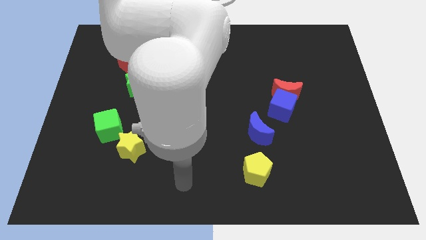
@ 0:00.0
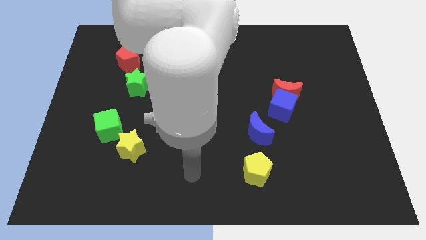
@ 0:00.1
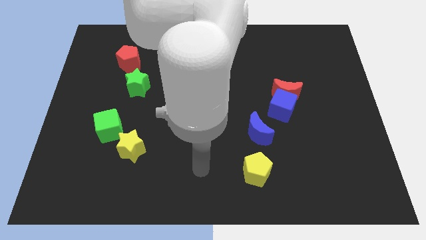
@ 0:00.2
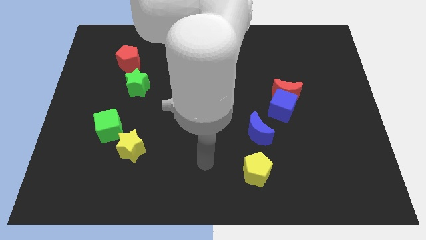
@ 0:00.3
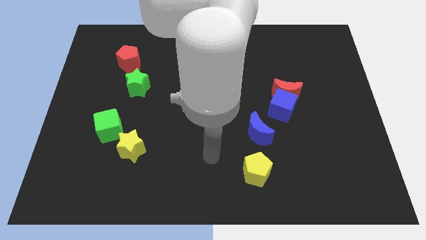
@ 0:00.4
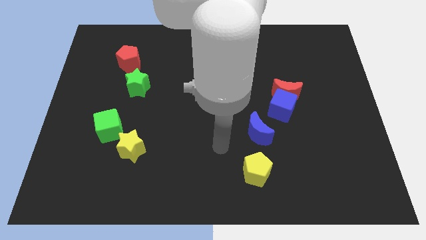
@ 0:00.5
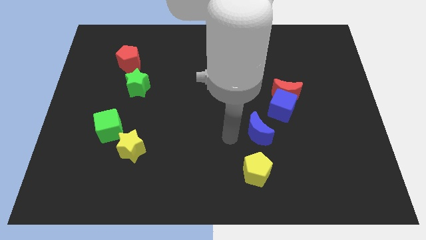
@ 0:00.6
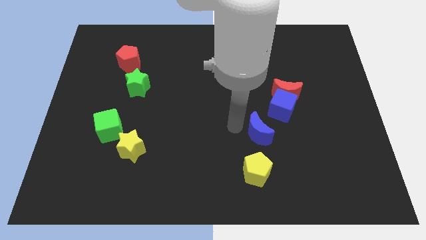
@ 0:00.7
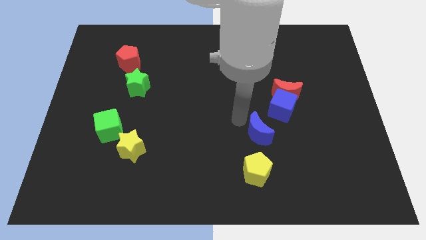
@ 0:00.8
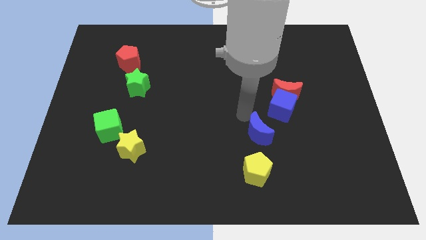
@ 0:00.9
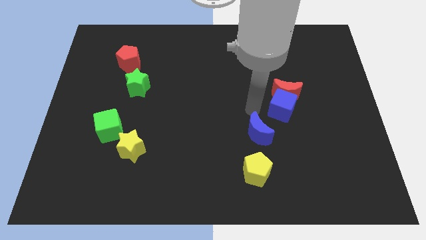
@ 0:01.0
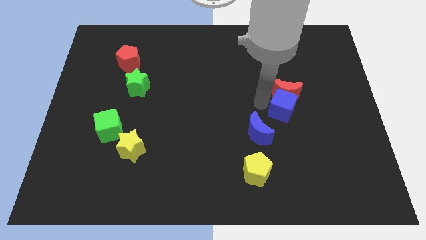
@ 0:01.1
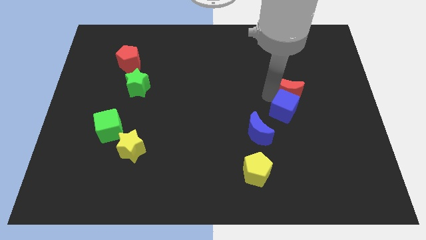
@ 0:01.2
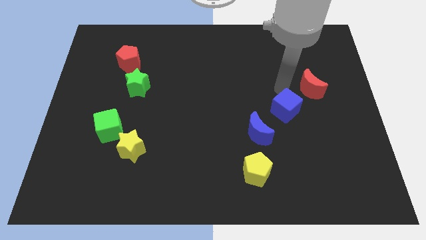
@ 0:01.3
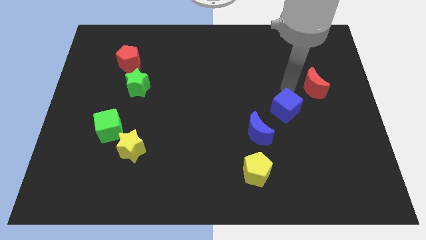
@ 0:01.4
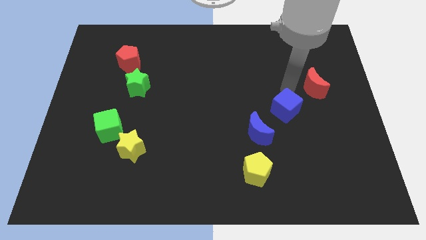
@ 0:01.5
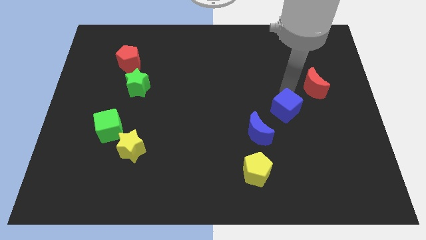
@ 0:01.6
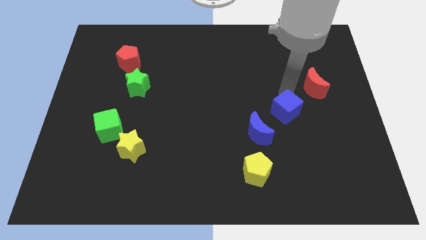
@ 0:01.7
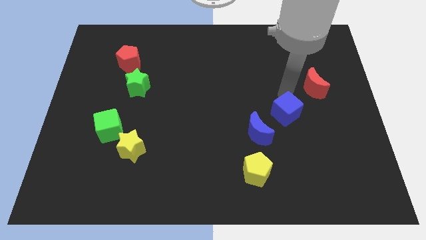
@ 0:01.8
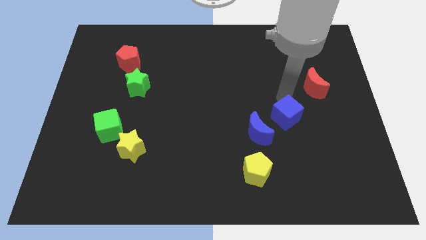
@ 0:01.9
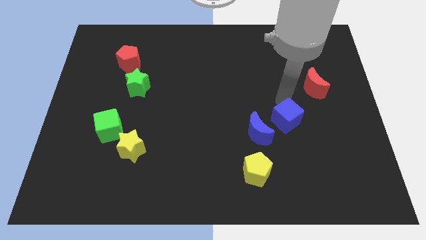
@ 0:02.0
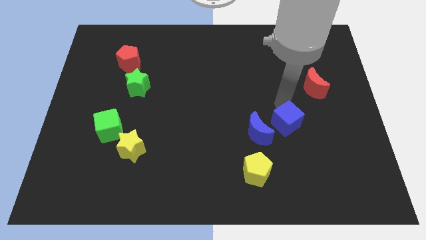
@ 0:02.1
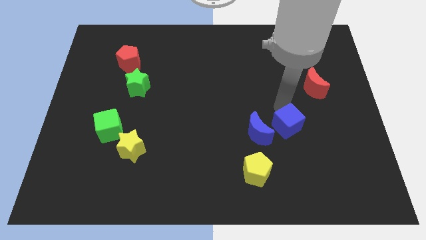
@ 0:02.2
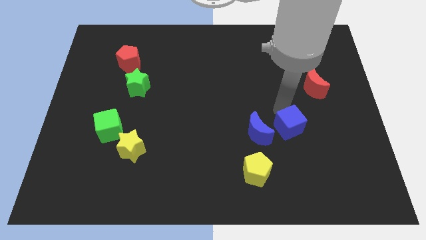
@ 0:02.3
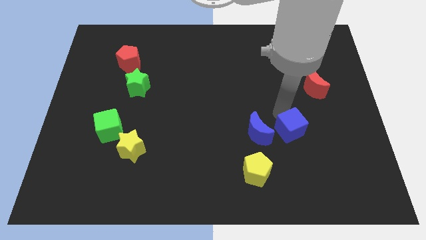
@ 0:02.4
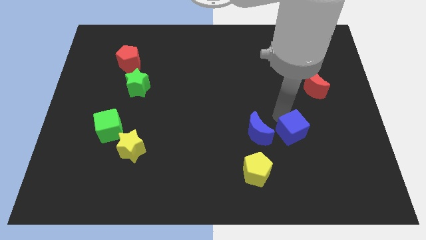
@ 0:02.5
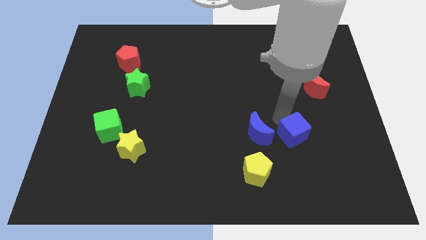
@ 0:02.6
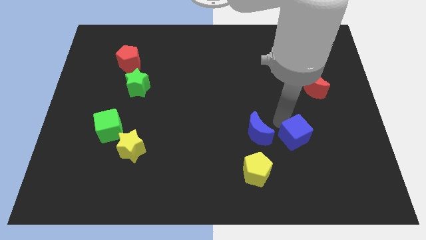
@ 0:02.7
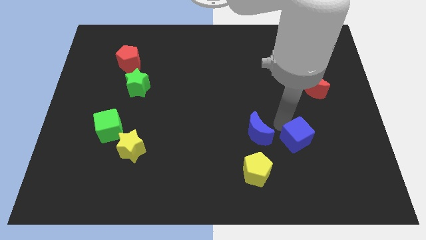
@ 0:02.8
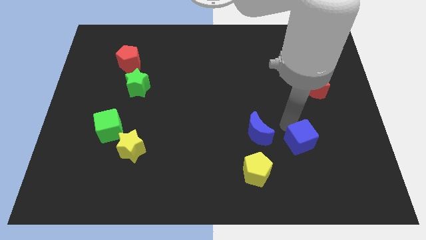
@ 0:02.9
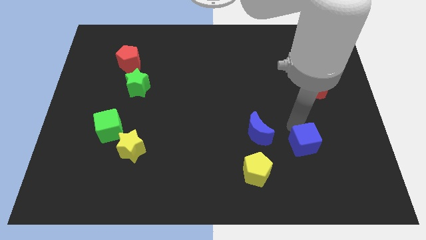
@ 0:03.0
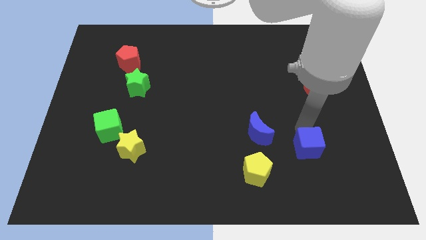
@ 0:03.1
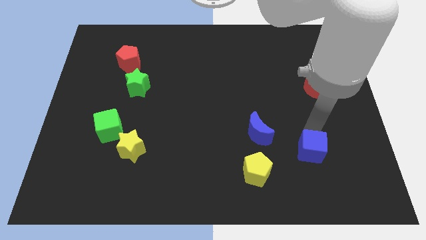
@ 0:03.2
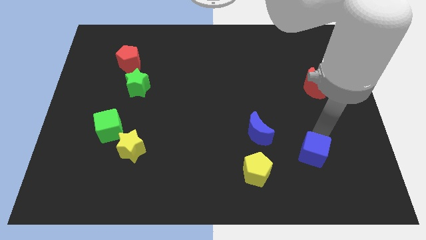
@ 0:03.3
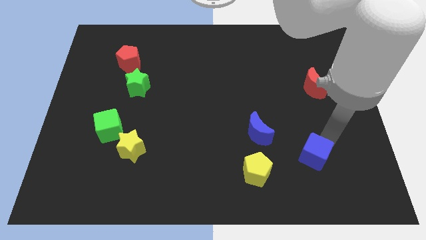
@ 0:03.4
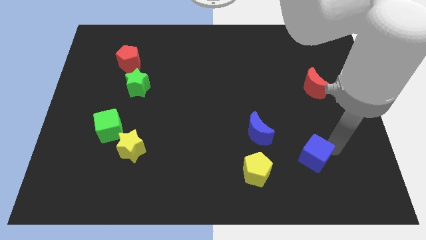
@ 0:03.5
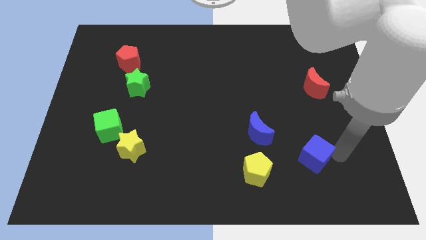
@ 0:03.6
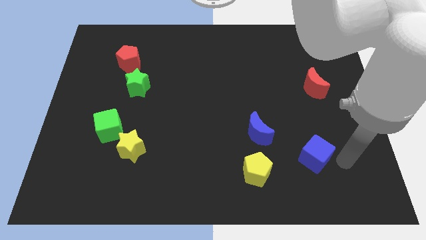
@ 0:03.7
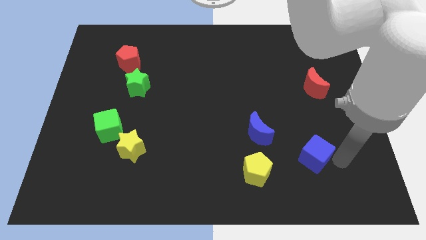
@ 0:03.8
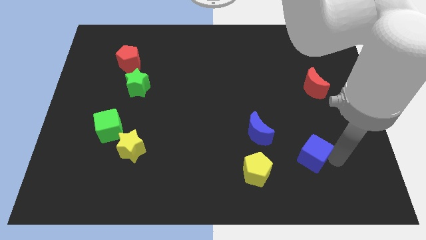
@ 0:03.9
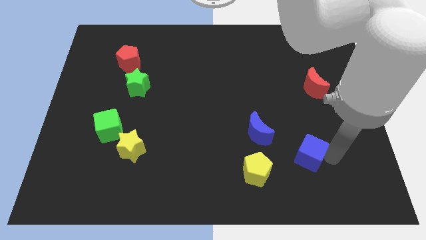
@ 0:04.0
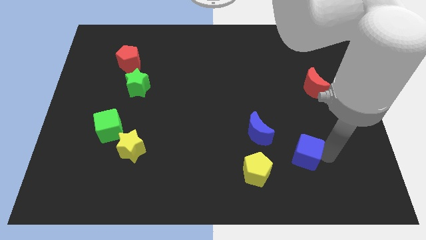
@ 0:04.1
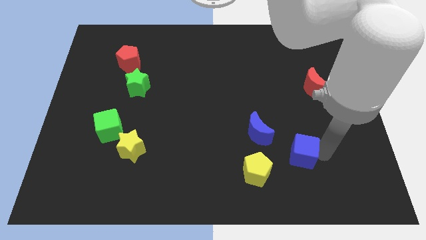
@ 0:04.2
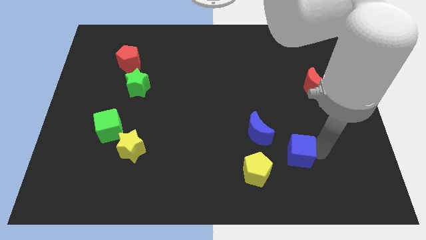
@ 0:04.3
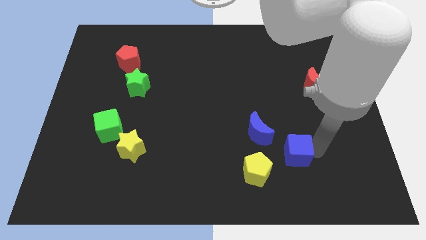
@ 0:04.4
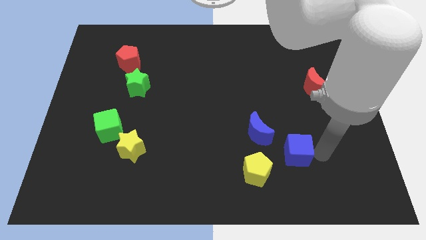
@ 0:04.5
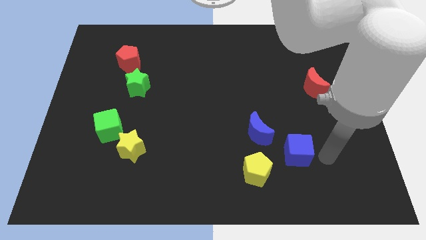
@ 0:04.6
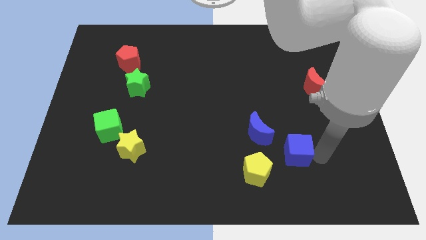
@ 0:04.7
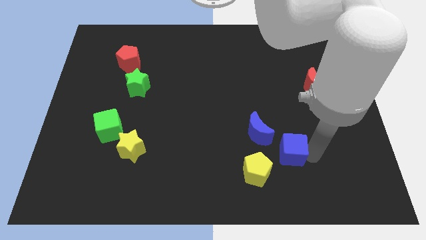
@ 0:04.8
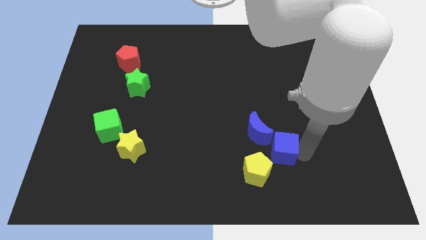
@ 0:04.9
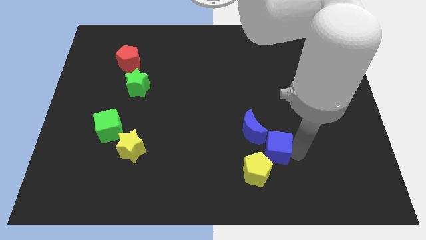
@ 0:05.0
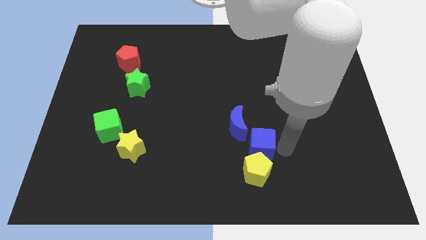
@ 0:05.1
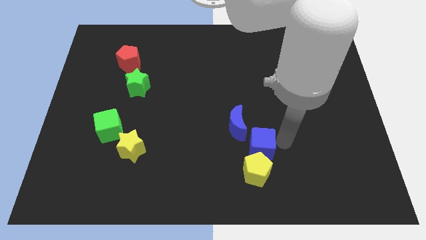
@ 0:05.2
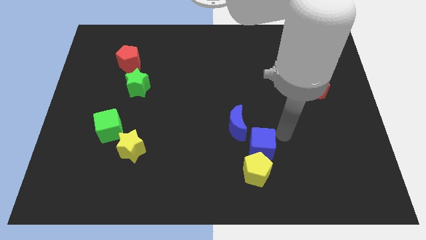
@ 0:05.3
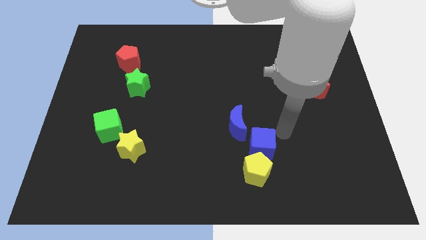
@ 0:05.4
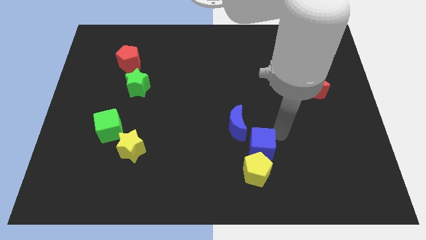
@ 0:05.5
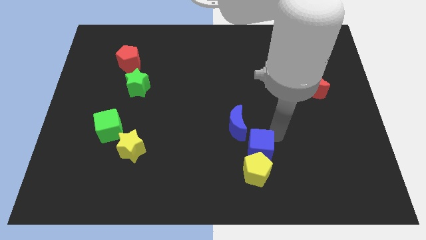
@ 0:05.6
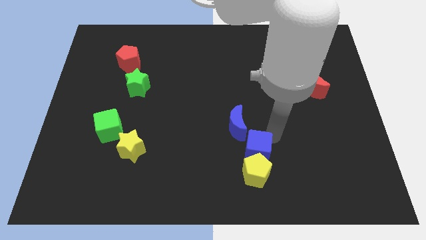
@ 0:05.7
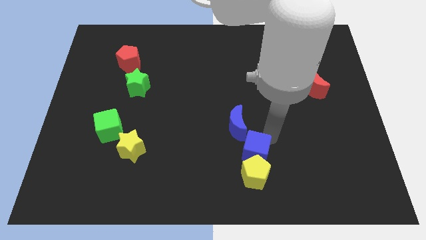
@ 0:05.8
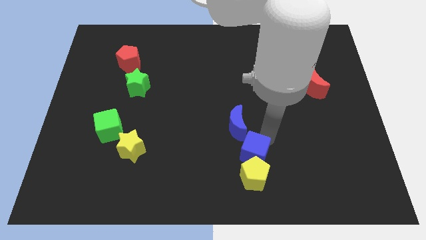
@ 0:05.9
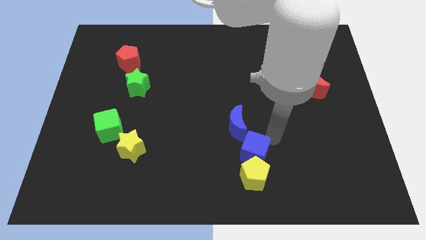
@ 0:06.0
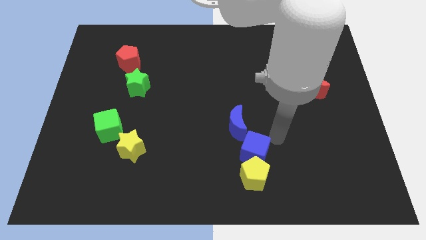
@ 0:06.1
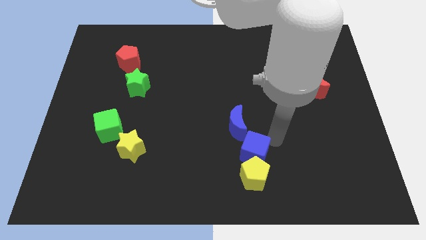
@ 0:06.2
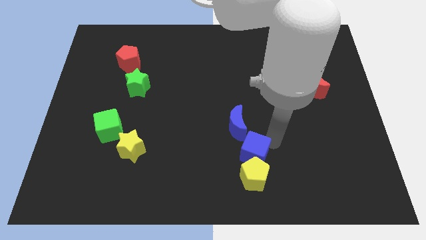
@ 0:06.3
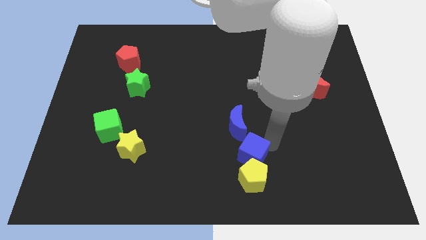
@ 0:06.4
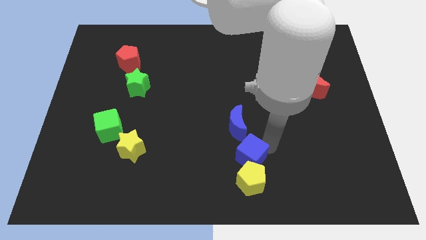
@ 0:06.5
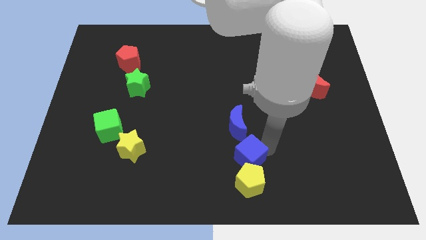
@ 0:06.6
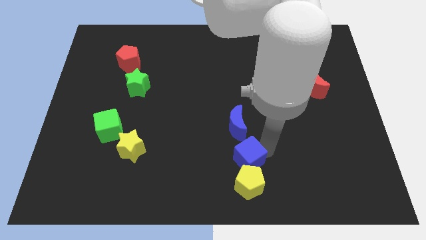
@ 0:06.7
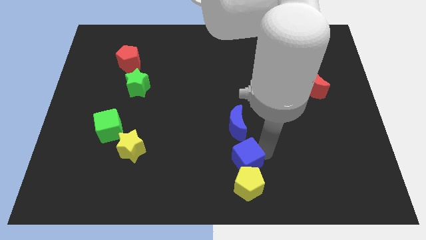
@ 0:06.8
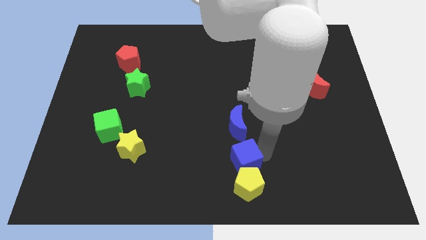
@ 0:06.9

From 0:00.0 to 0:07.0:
put the blue cube to the bottom
